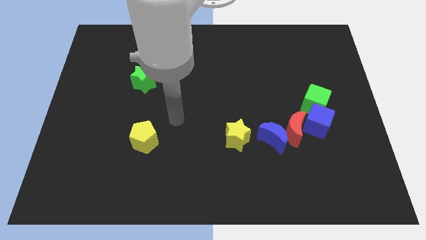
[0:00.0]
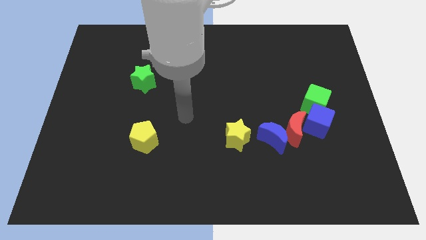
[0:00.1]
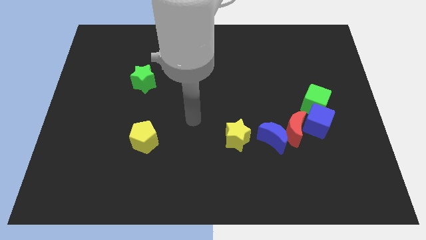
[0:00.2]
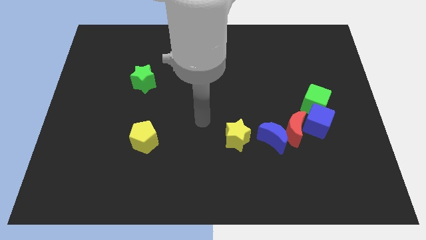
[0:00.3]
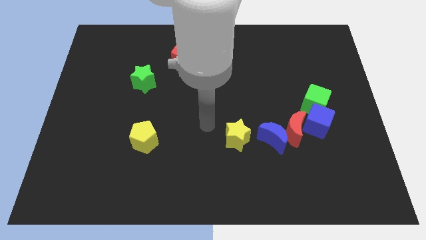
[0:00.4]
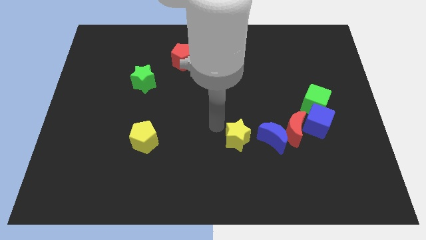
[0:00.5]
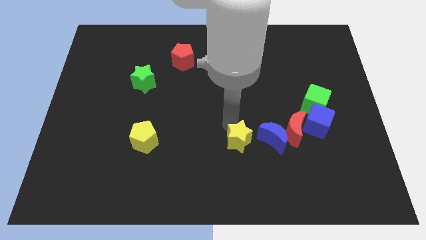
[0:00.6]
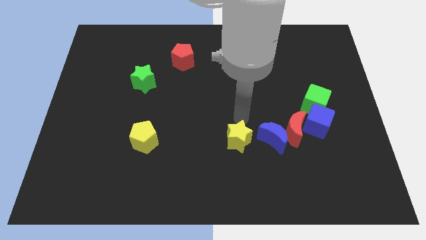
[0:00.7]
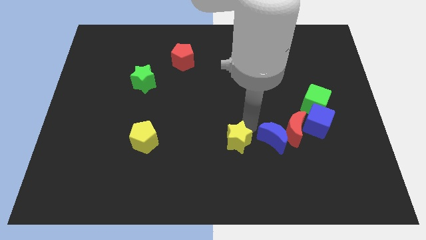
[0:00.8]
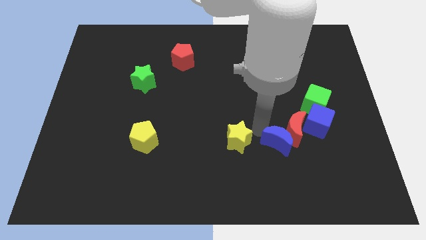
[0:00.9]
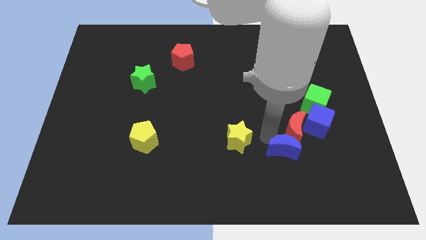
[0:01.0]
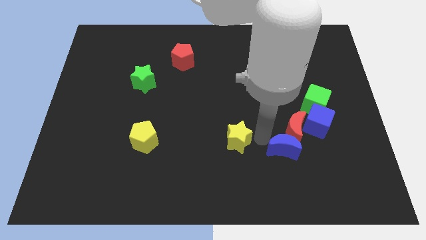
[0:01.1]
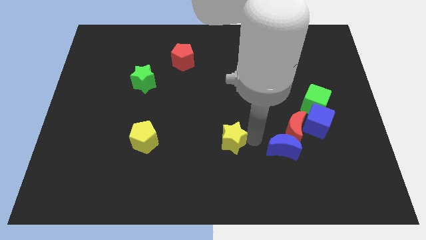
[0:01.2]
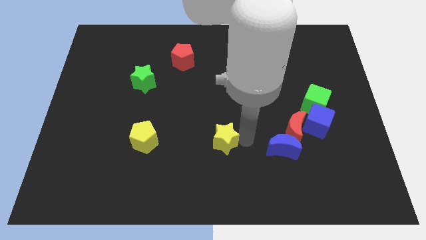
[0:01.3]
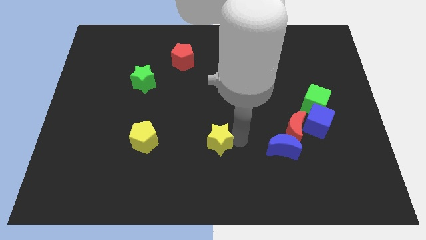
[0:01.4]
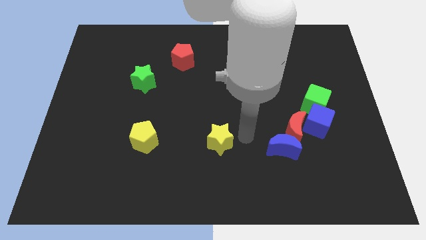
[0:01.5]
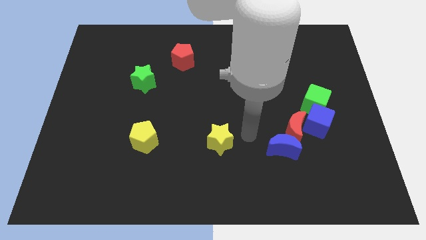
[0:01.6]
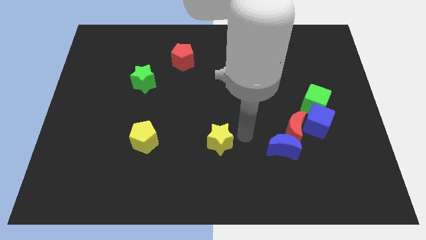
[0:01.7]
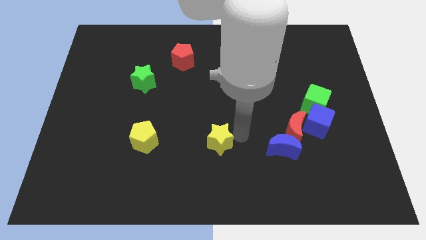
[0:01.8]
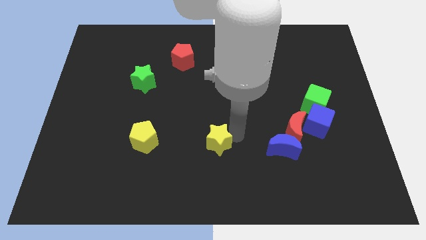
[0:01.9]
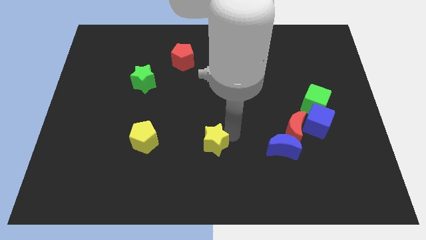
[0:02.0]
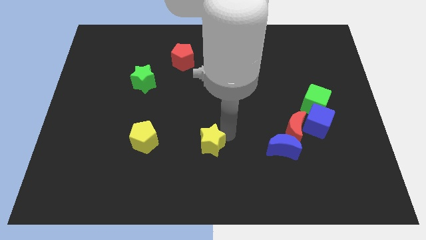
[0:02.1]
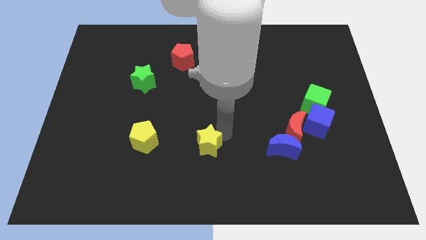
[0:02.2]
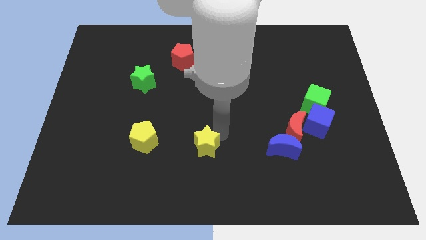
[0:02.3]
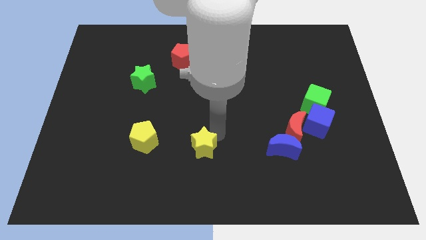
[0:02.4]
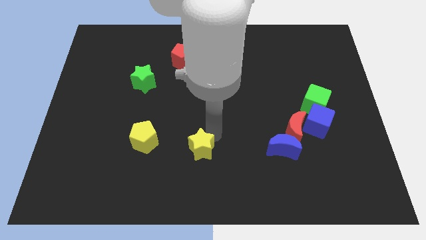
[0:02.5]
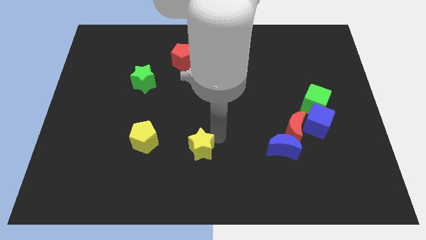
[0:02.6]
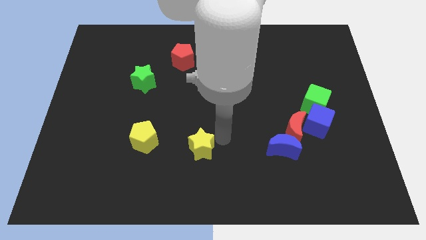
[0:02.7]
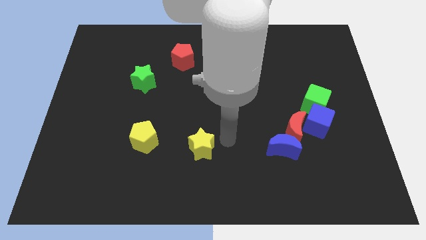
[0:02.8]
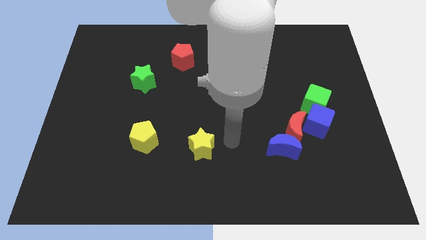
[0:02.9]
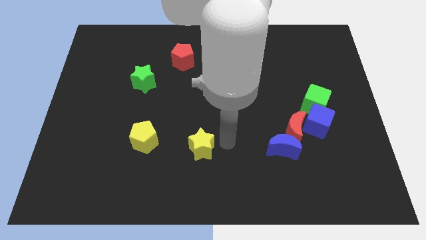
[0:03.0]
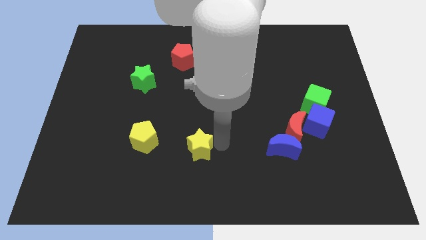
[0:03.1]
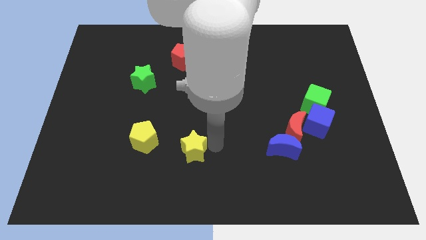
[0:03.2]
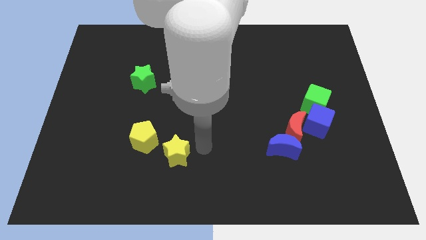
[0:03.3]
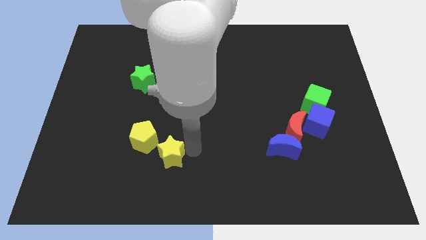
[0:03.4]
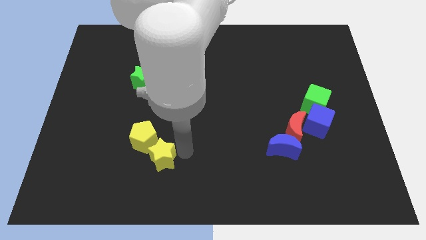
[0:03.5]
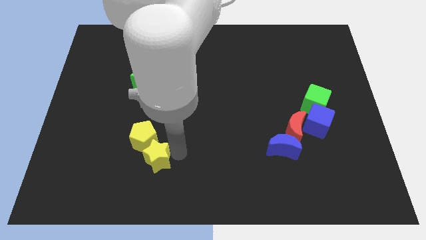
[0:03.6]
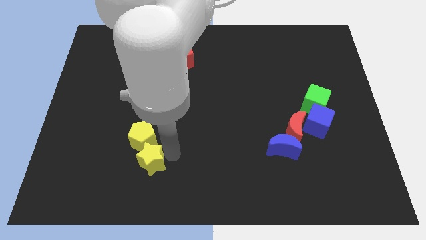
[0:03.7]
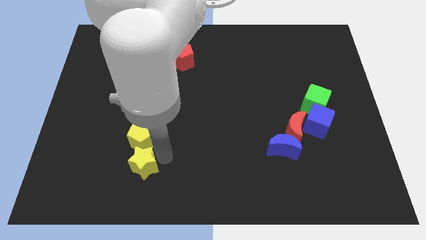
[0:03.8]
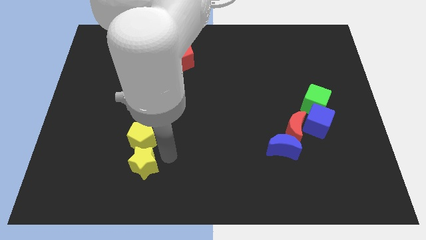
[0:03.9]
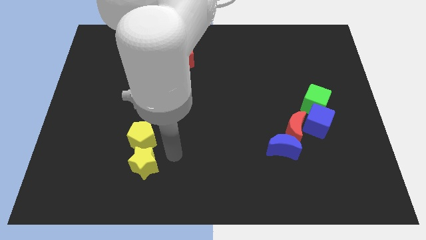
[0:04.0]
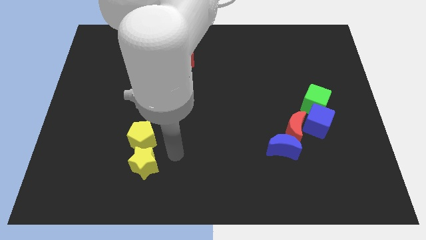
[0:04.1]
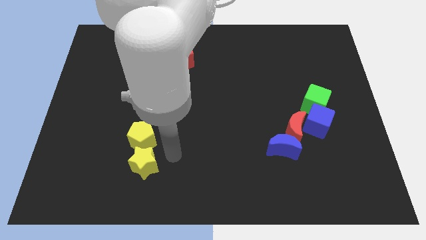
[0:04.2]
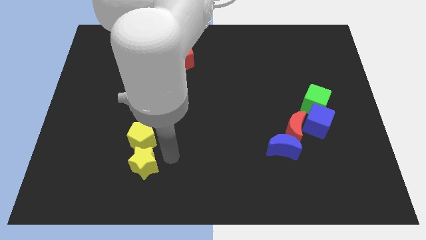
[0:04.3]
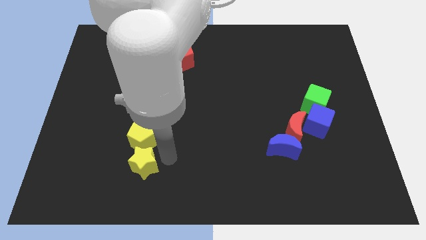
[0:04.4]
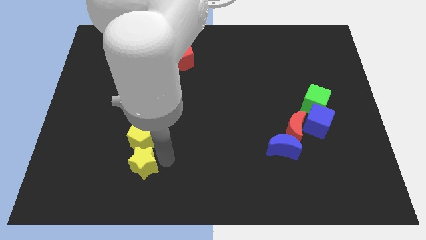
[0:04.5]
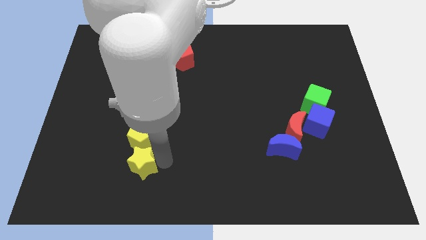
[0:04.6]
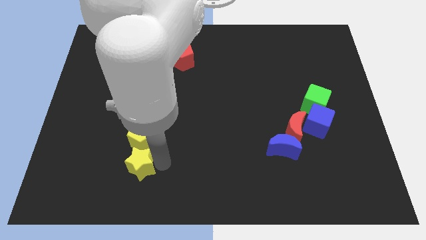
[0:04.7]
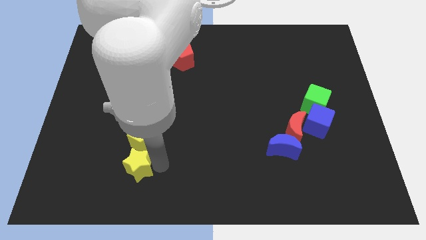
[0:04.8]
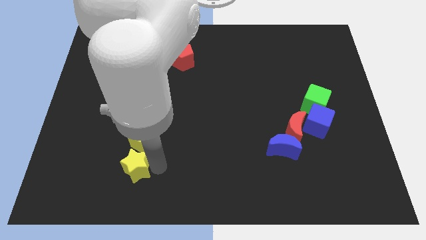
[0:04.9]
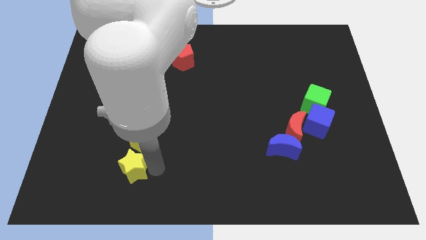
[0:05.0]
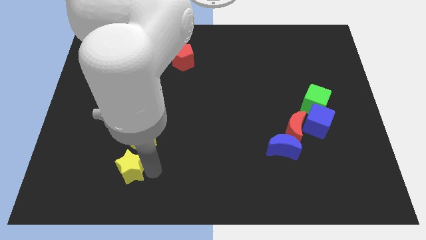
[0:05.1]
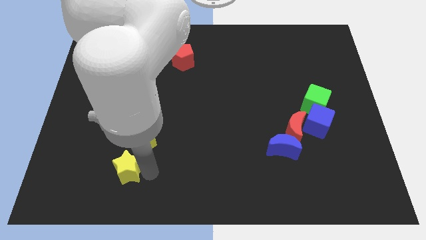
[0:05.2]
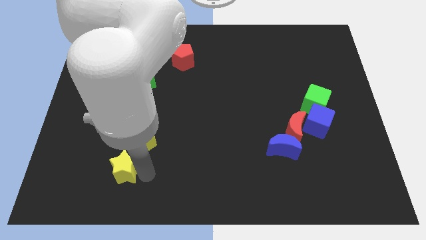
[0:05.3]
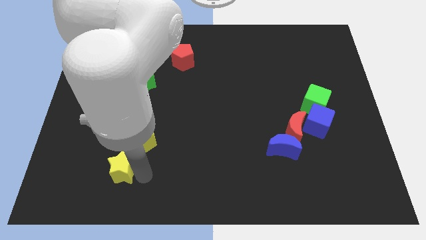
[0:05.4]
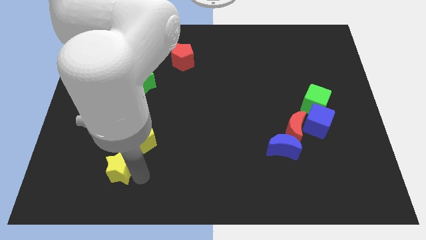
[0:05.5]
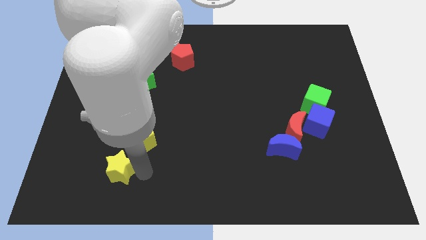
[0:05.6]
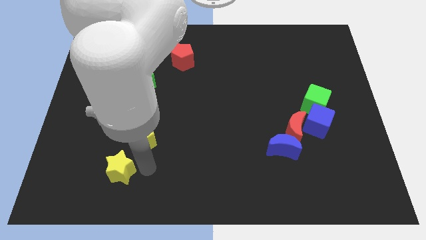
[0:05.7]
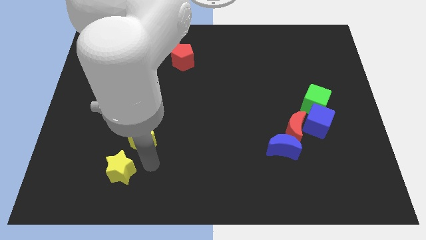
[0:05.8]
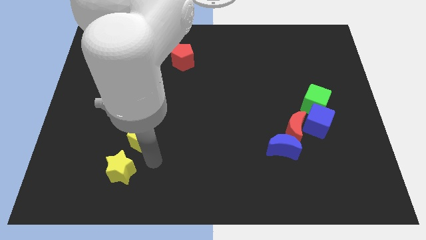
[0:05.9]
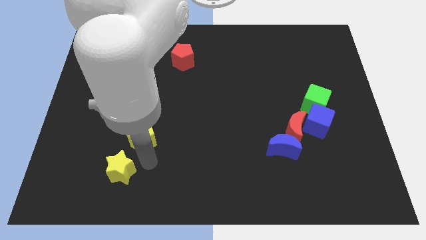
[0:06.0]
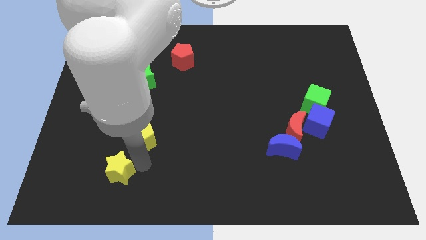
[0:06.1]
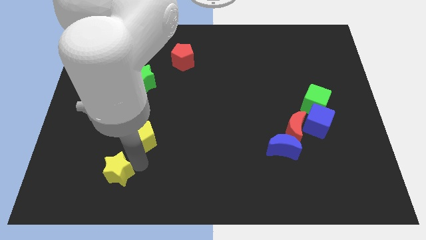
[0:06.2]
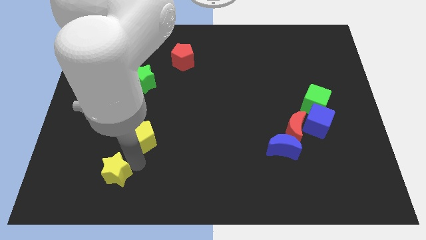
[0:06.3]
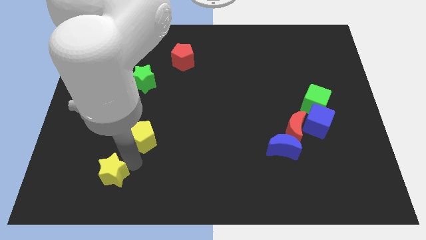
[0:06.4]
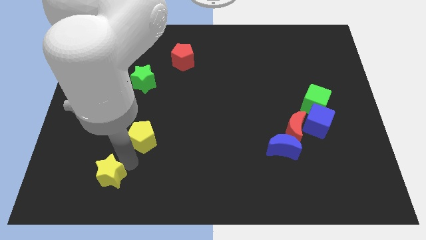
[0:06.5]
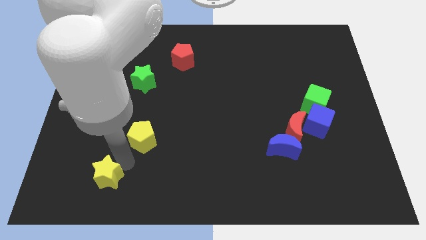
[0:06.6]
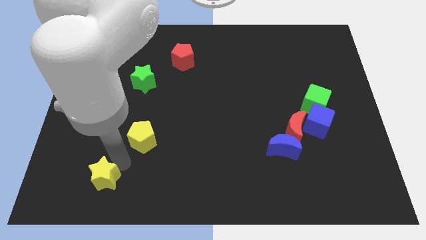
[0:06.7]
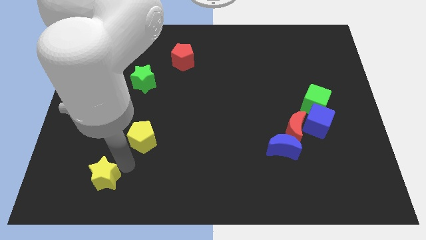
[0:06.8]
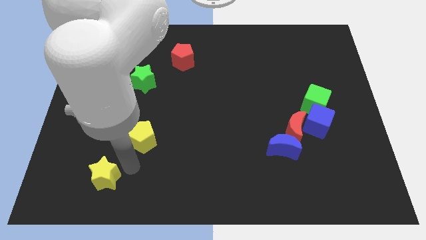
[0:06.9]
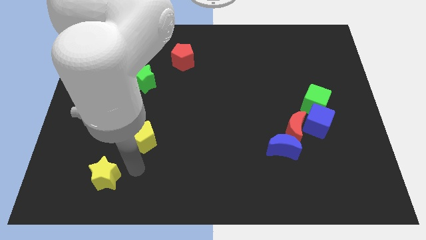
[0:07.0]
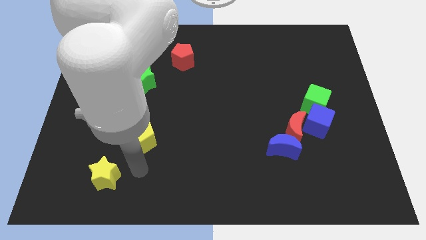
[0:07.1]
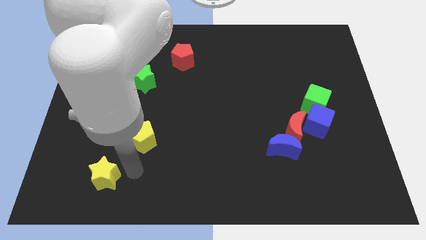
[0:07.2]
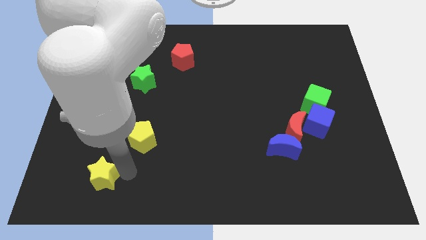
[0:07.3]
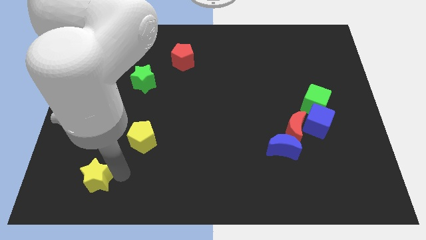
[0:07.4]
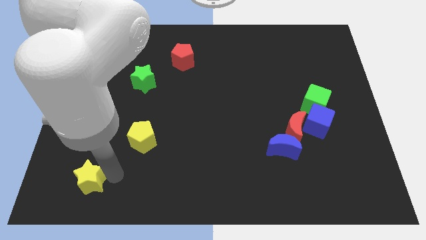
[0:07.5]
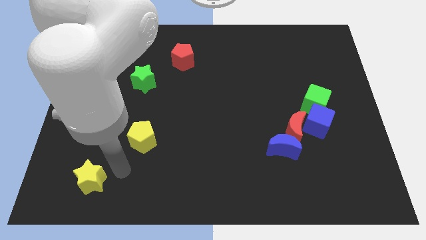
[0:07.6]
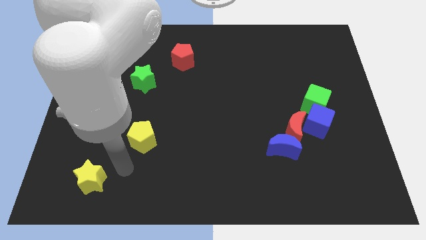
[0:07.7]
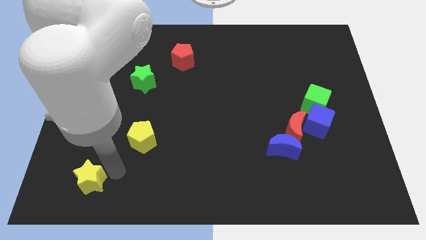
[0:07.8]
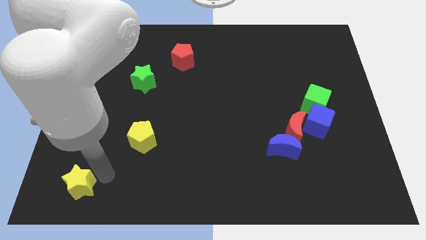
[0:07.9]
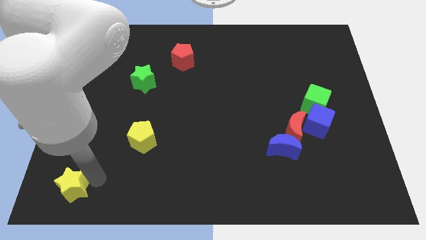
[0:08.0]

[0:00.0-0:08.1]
push the yellow star to the lower left corner
